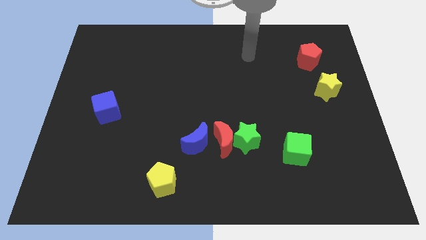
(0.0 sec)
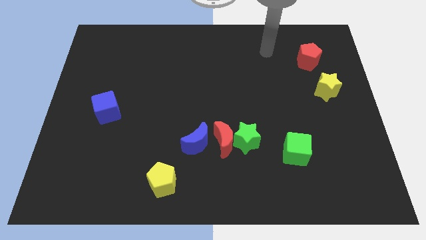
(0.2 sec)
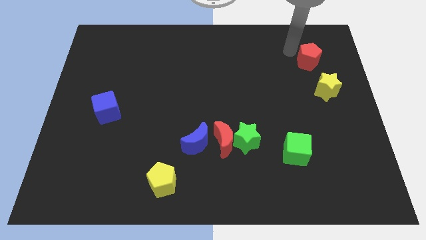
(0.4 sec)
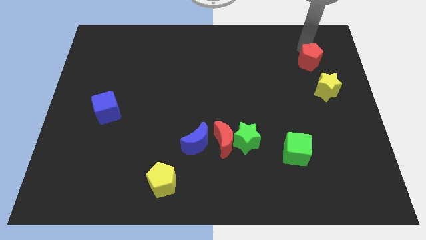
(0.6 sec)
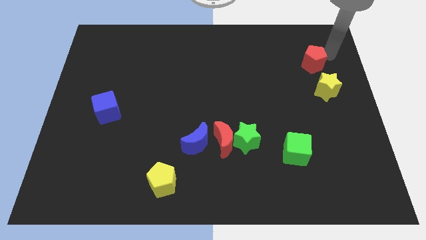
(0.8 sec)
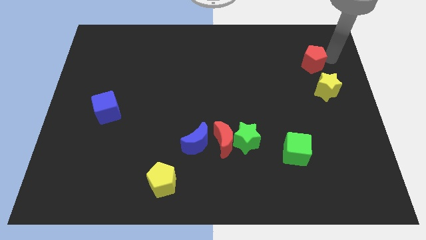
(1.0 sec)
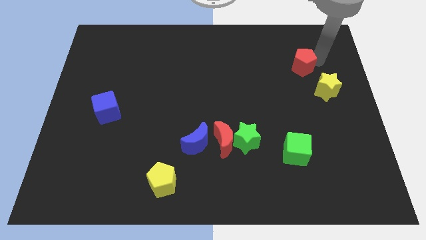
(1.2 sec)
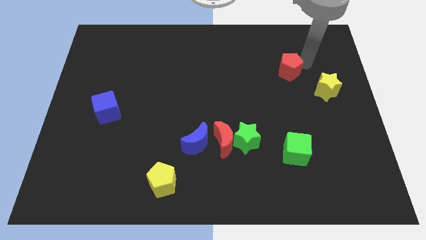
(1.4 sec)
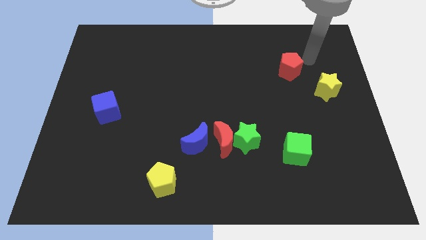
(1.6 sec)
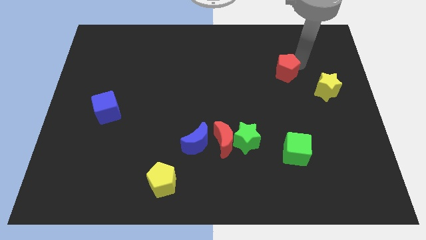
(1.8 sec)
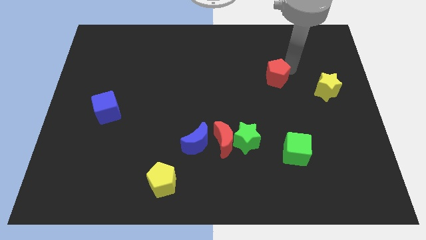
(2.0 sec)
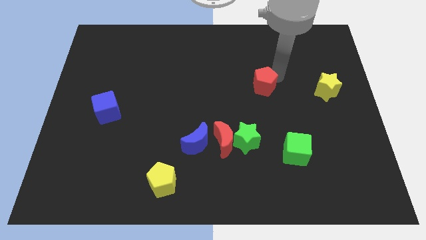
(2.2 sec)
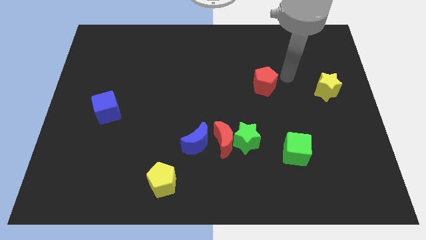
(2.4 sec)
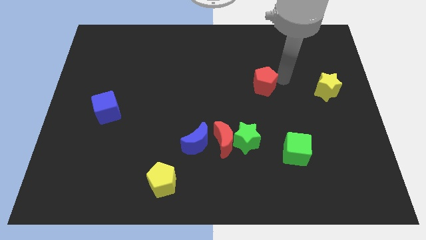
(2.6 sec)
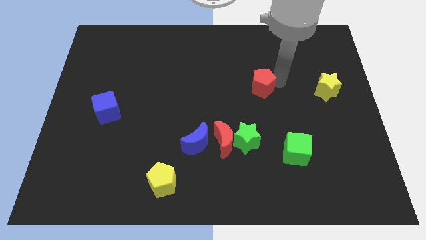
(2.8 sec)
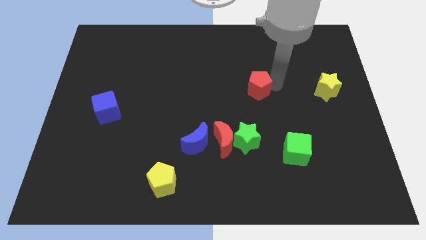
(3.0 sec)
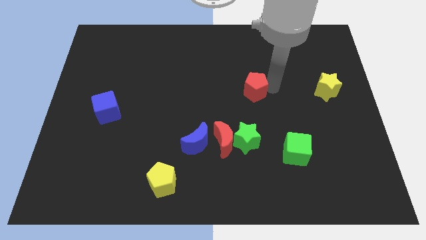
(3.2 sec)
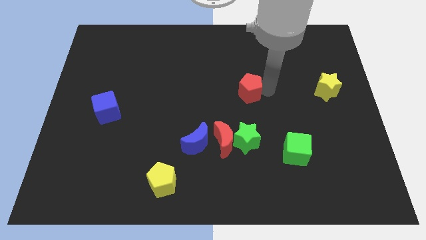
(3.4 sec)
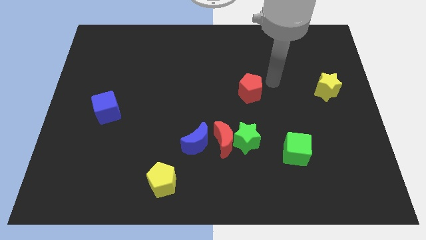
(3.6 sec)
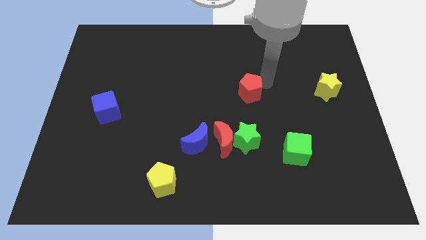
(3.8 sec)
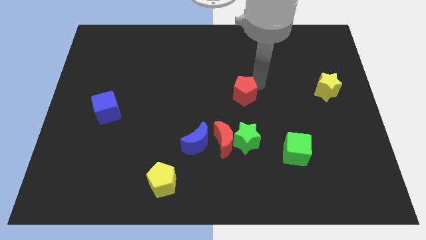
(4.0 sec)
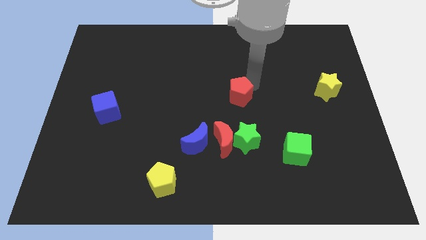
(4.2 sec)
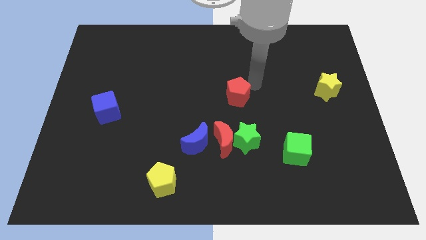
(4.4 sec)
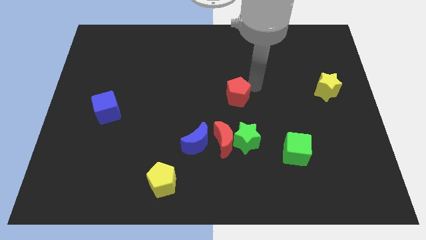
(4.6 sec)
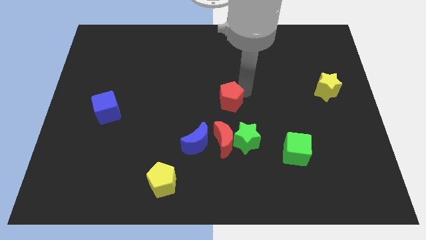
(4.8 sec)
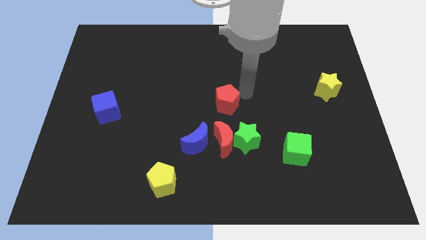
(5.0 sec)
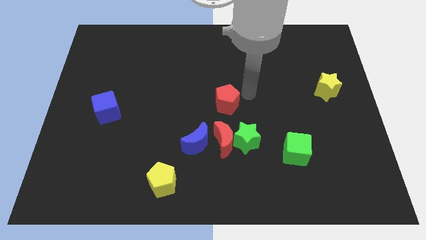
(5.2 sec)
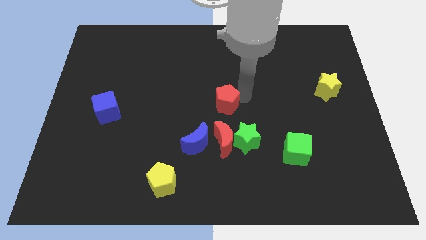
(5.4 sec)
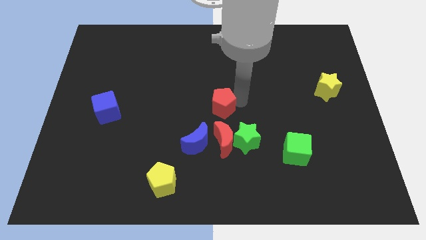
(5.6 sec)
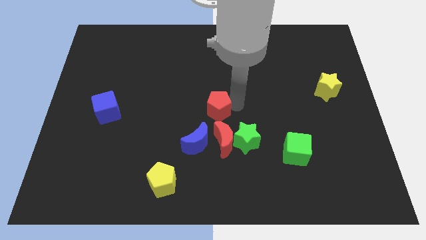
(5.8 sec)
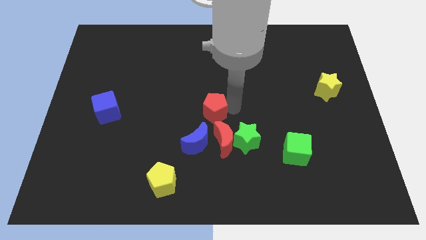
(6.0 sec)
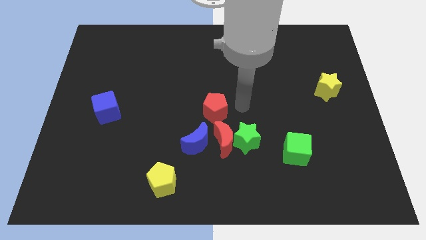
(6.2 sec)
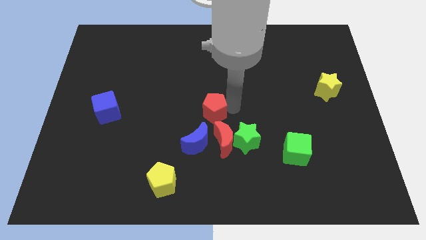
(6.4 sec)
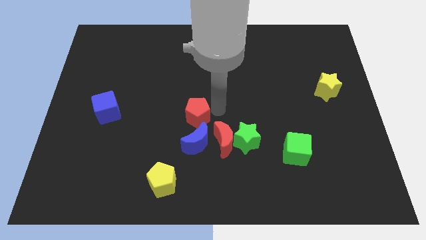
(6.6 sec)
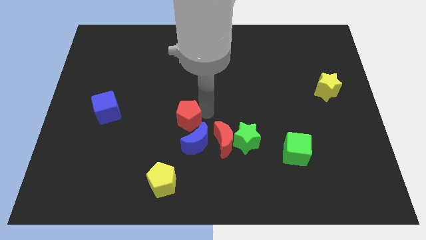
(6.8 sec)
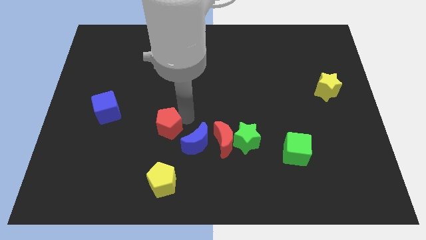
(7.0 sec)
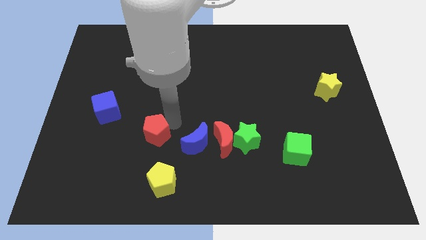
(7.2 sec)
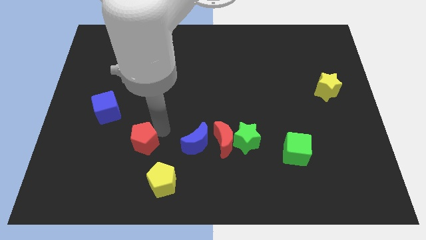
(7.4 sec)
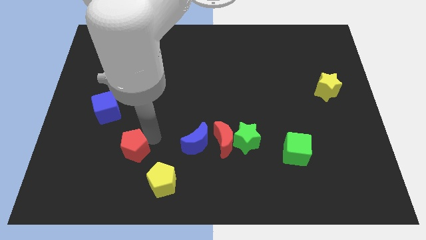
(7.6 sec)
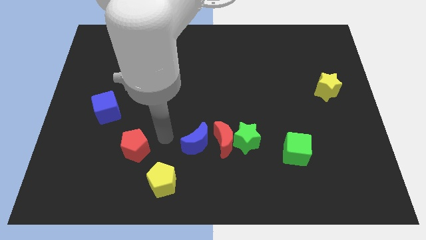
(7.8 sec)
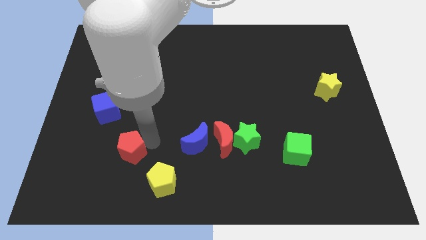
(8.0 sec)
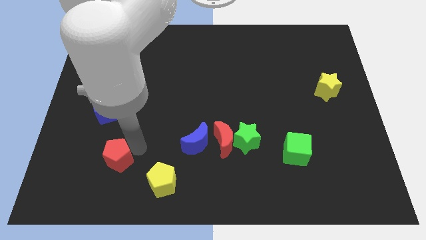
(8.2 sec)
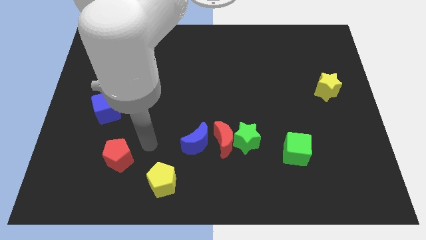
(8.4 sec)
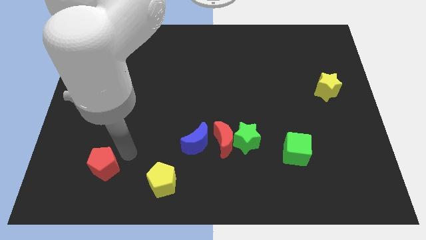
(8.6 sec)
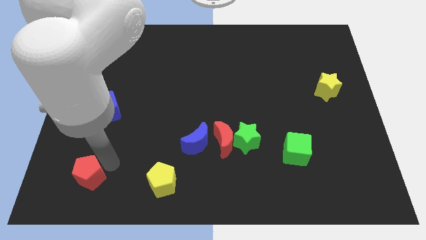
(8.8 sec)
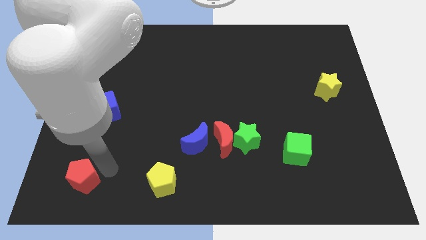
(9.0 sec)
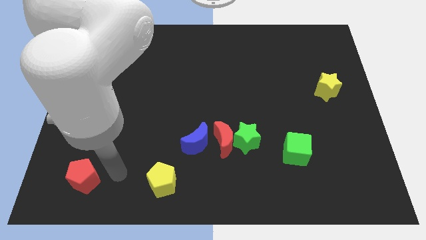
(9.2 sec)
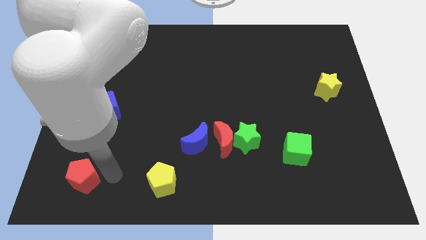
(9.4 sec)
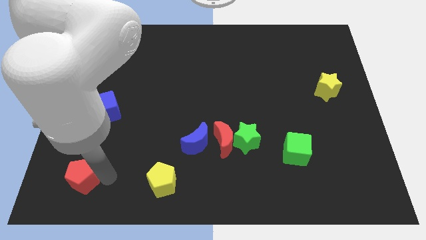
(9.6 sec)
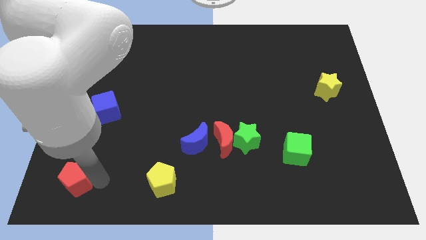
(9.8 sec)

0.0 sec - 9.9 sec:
slide the red pentagon to the bottom left corner

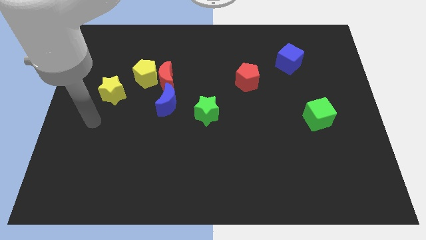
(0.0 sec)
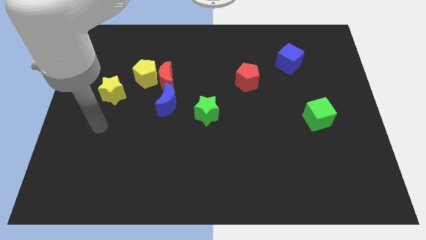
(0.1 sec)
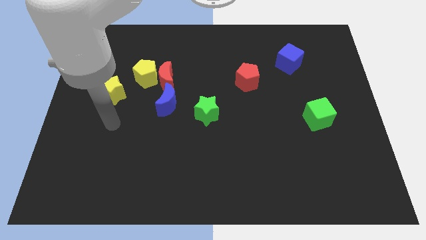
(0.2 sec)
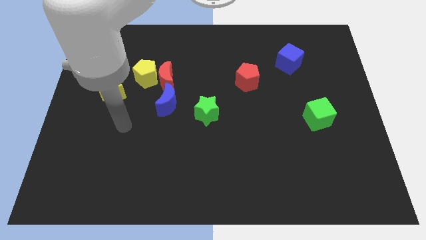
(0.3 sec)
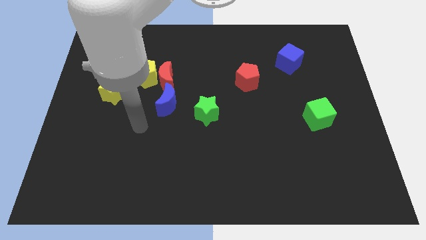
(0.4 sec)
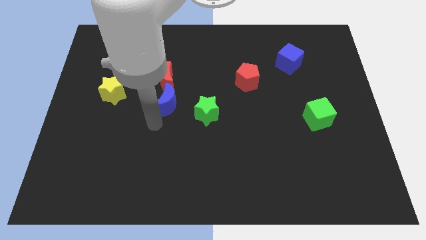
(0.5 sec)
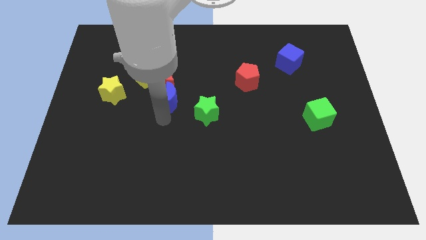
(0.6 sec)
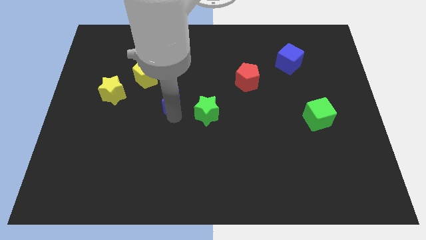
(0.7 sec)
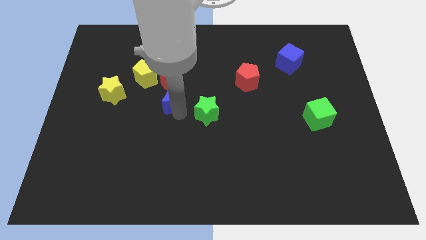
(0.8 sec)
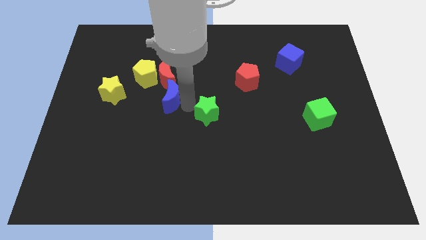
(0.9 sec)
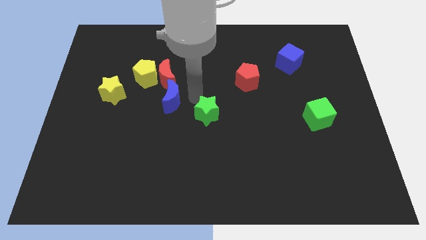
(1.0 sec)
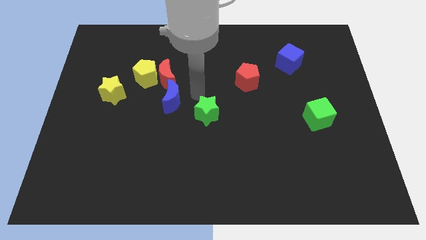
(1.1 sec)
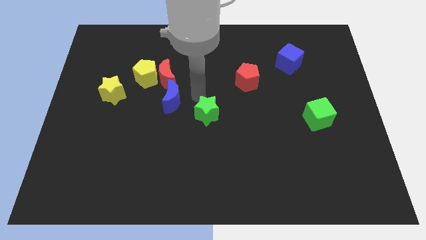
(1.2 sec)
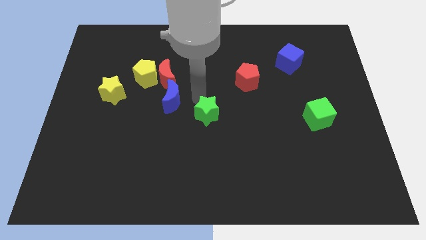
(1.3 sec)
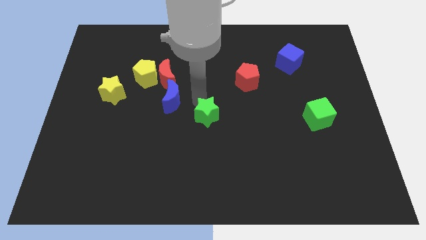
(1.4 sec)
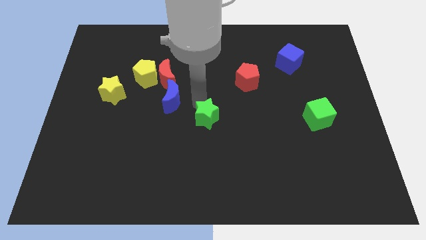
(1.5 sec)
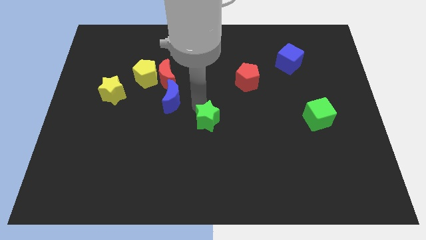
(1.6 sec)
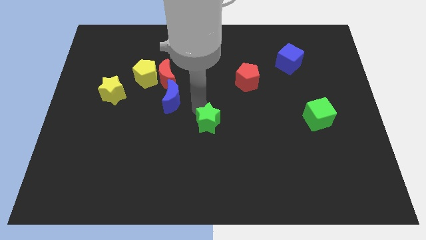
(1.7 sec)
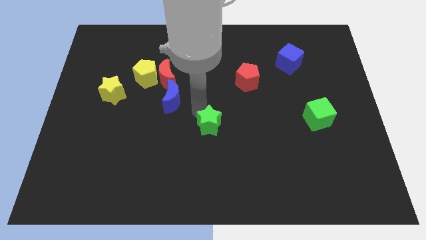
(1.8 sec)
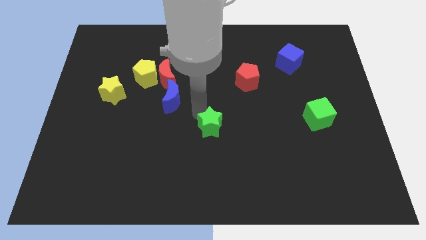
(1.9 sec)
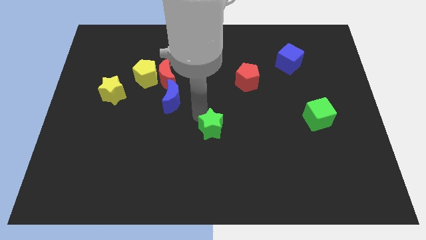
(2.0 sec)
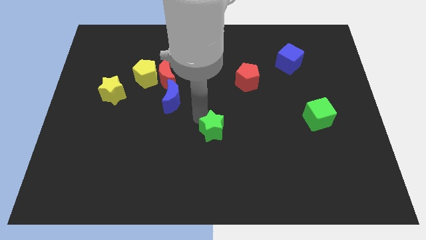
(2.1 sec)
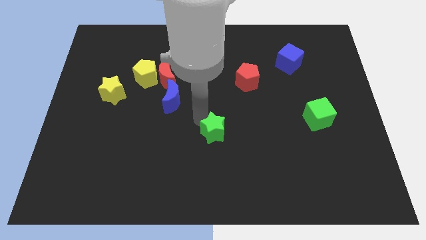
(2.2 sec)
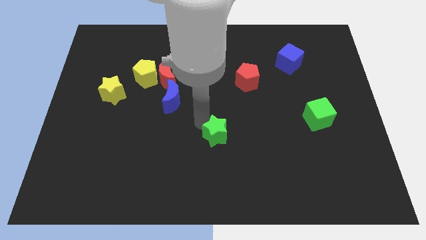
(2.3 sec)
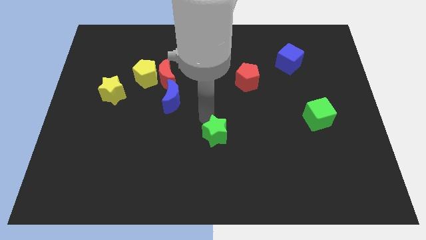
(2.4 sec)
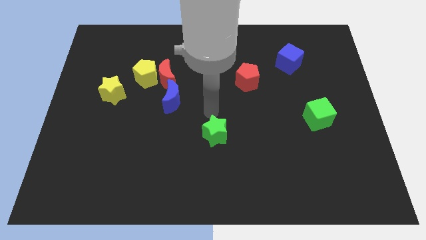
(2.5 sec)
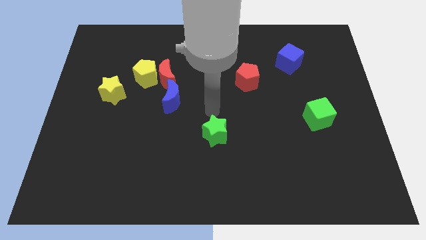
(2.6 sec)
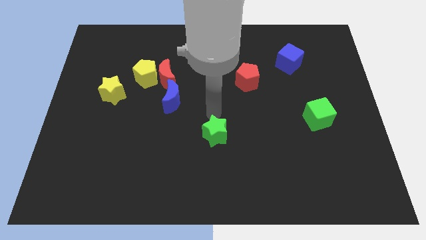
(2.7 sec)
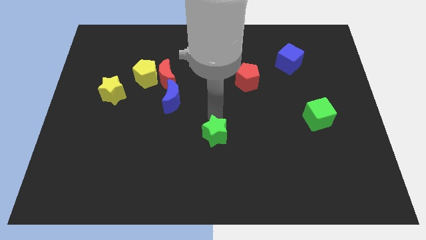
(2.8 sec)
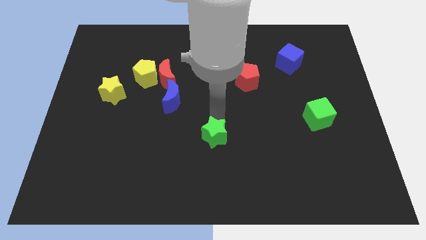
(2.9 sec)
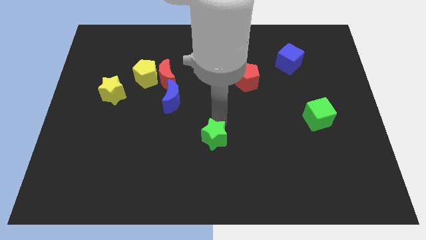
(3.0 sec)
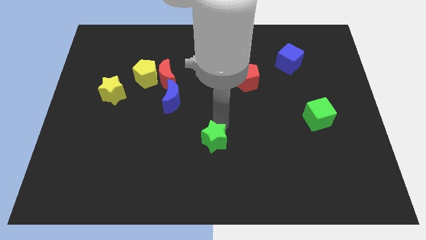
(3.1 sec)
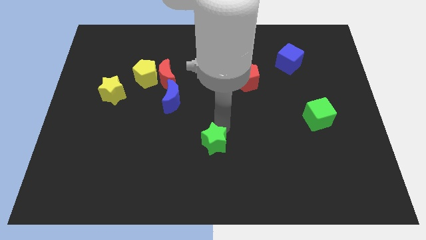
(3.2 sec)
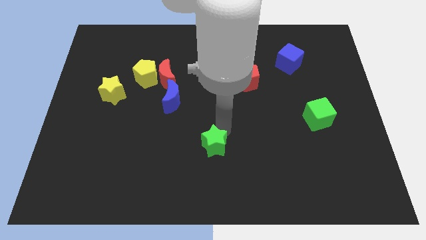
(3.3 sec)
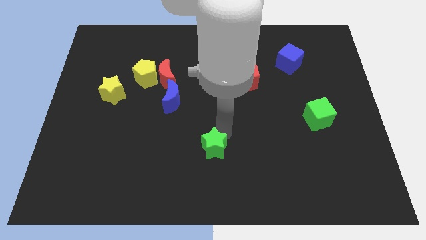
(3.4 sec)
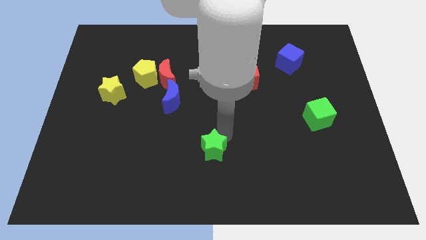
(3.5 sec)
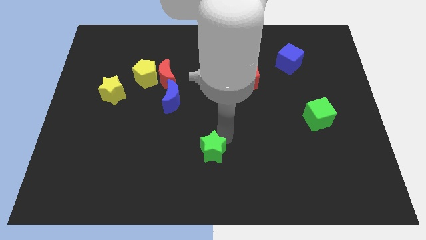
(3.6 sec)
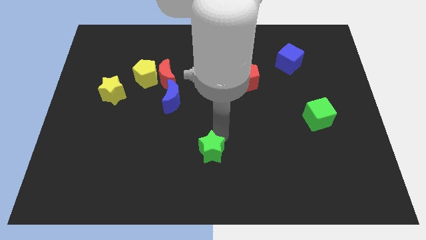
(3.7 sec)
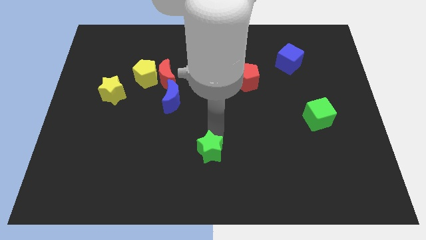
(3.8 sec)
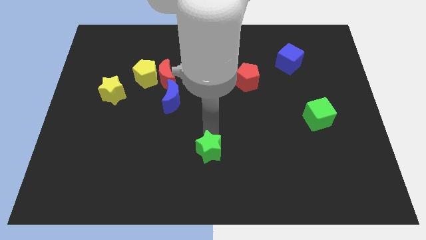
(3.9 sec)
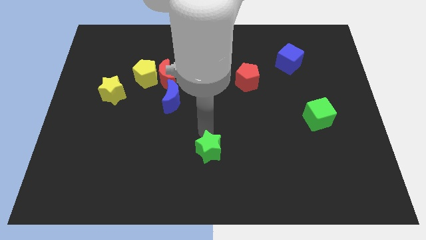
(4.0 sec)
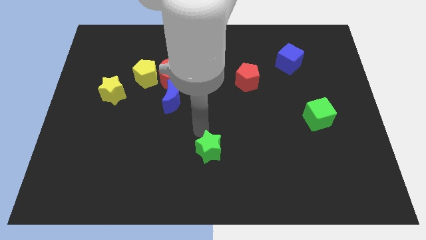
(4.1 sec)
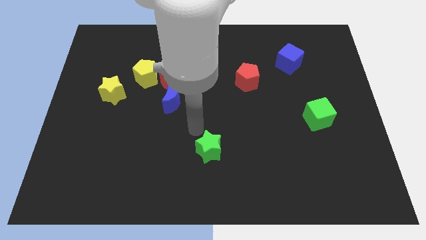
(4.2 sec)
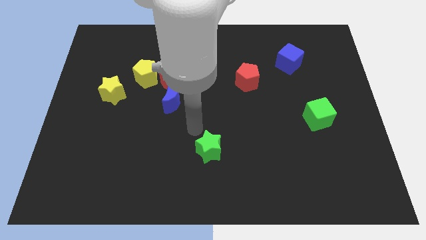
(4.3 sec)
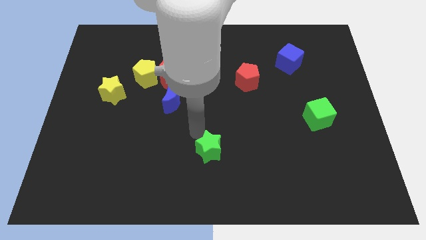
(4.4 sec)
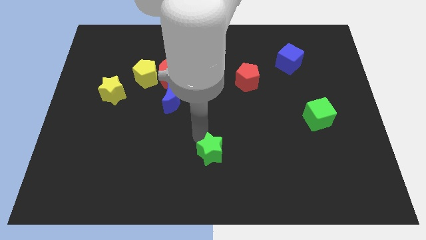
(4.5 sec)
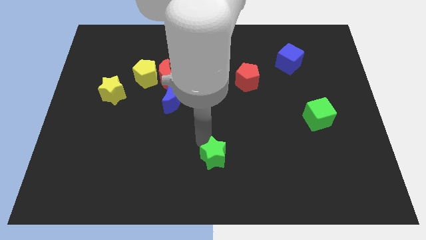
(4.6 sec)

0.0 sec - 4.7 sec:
slide the green star to the bottom
